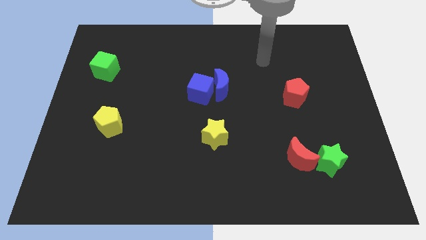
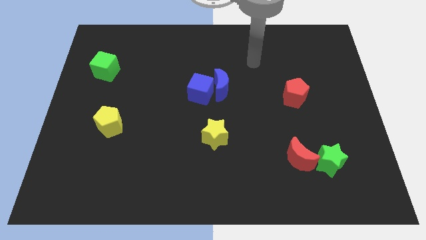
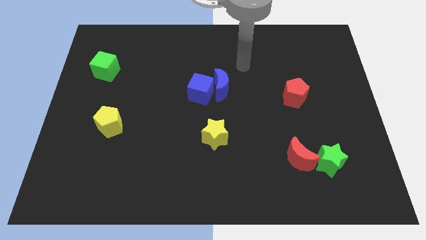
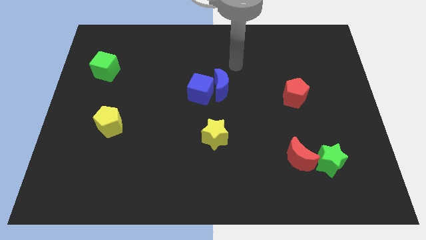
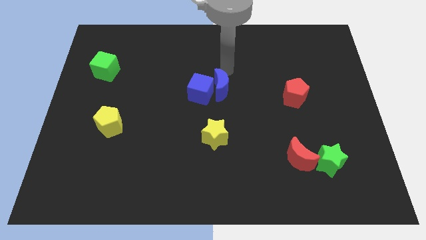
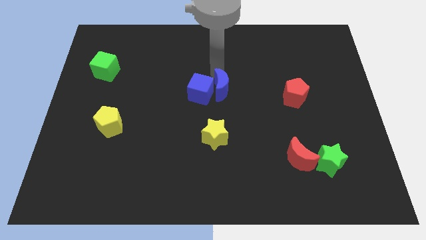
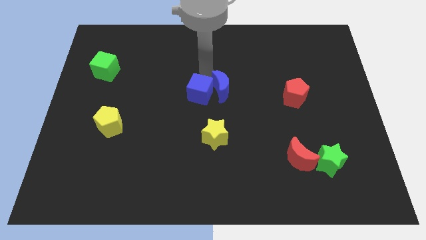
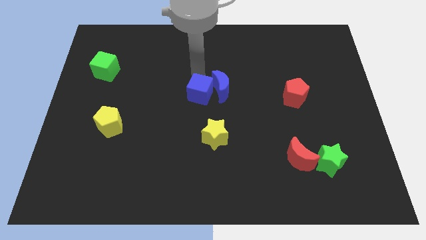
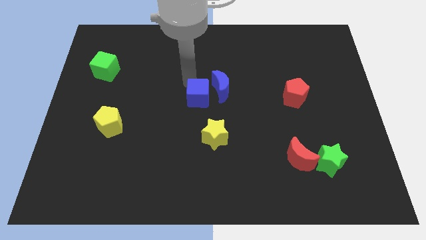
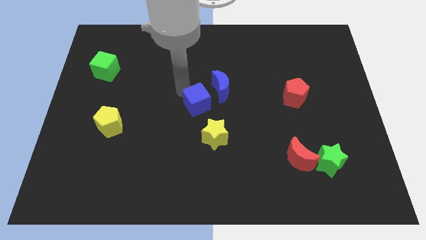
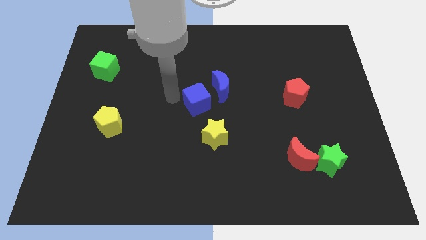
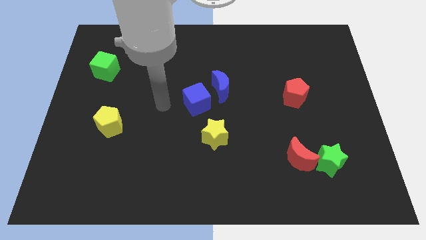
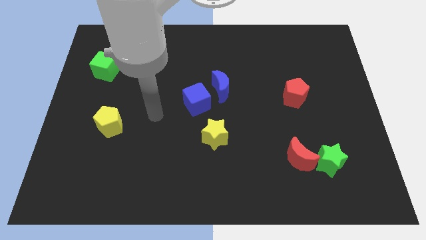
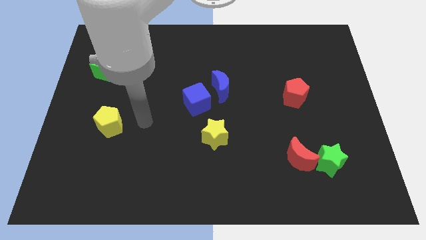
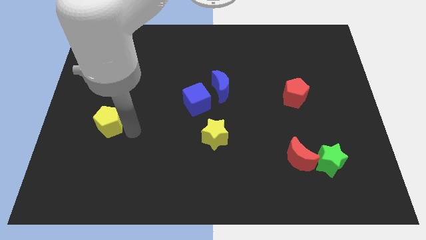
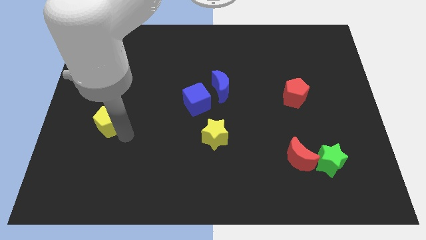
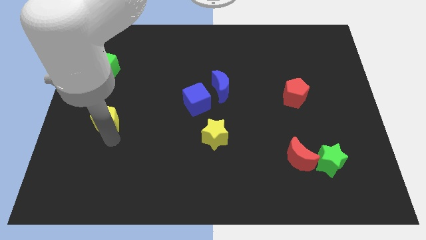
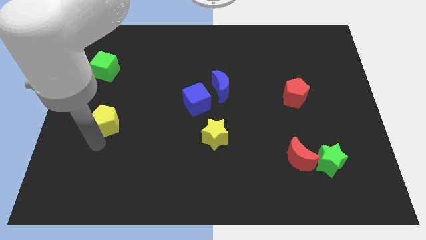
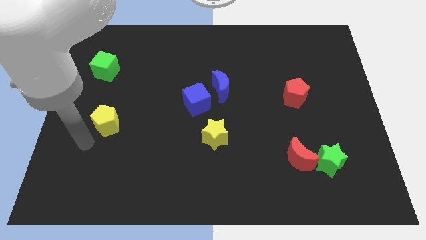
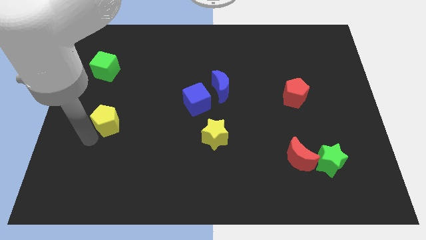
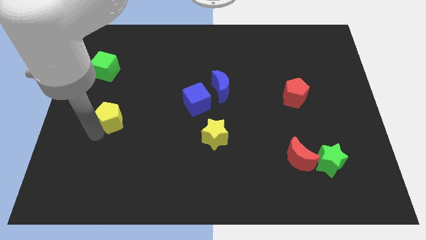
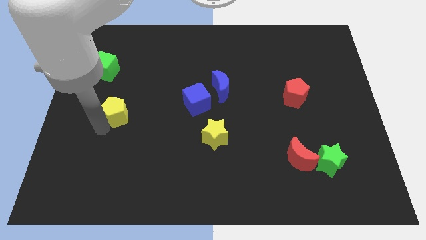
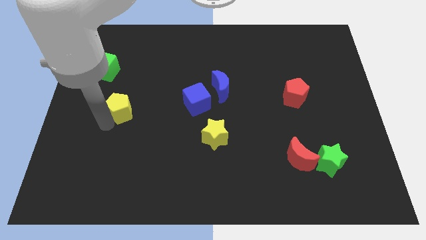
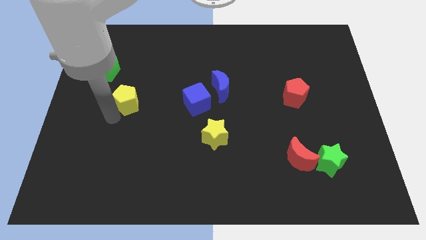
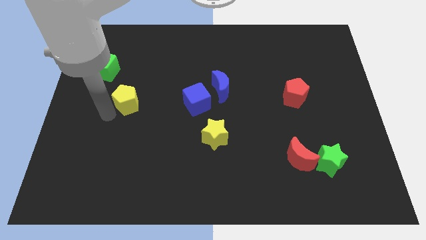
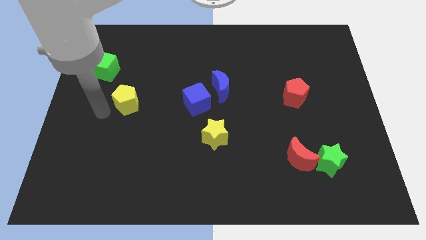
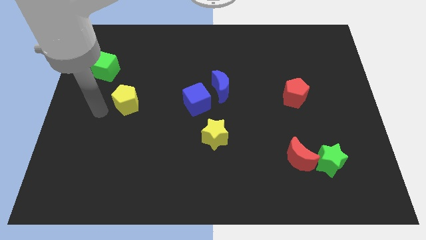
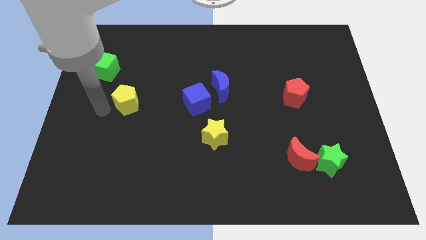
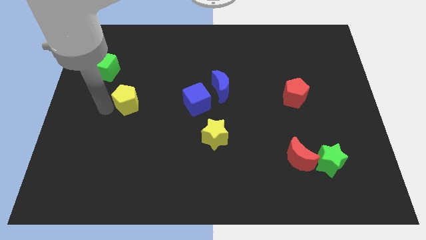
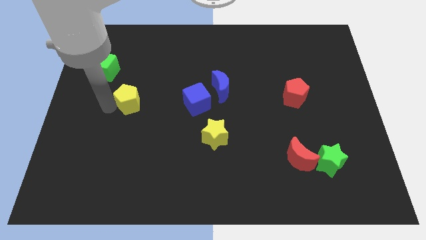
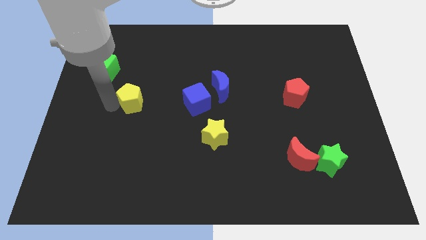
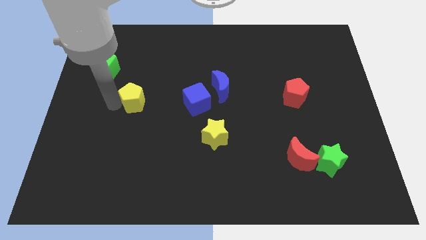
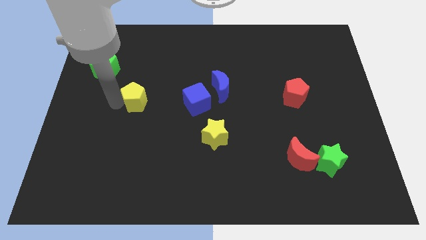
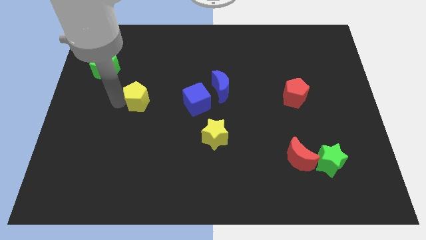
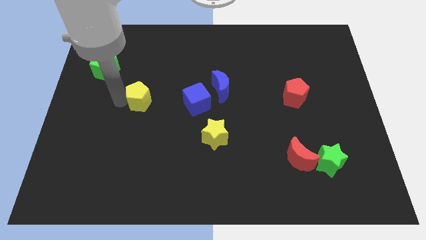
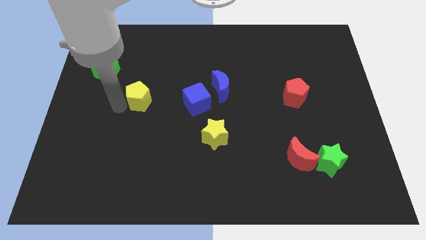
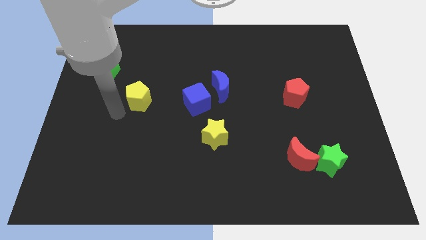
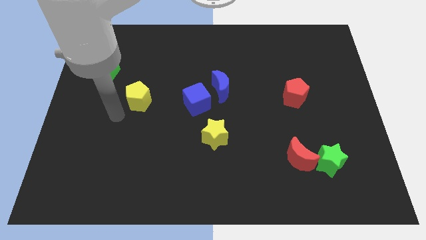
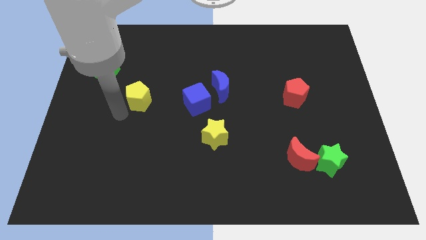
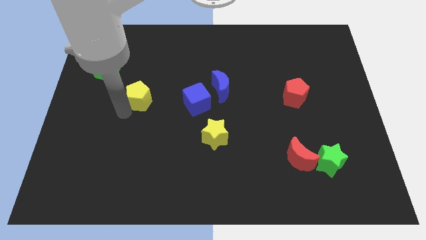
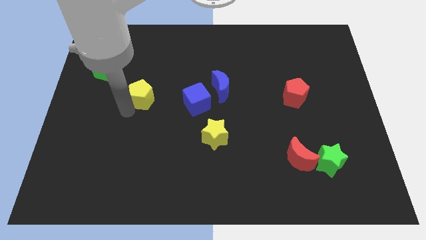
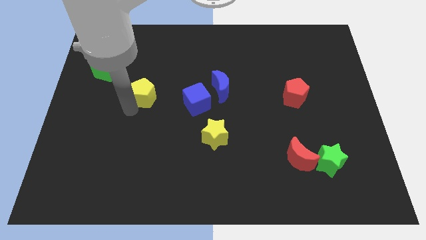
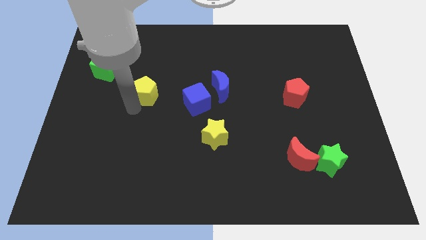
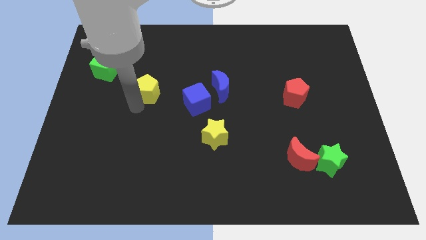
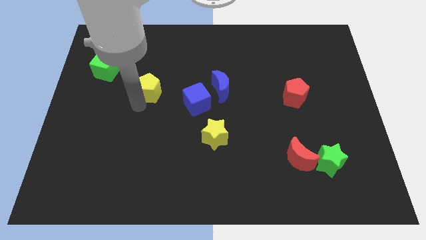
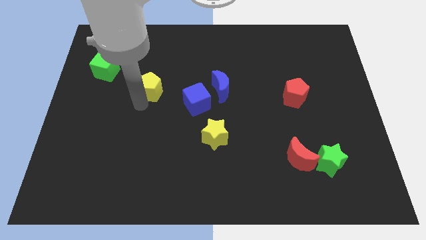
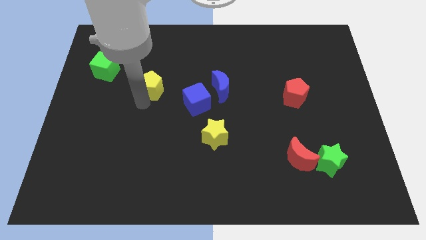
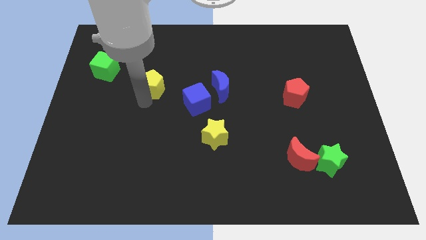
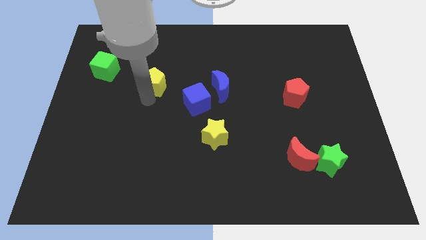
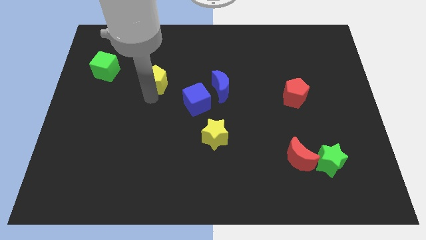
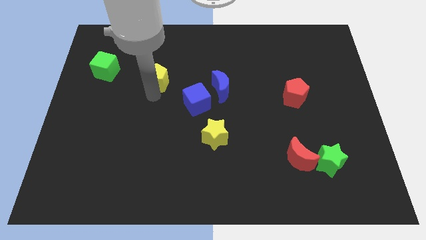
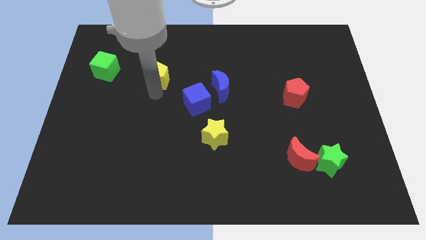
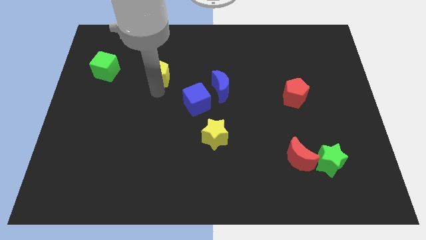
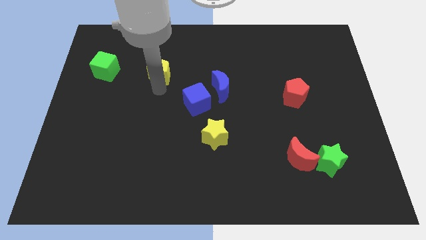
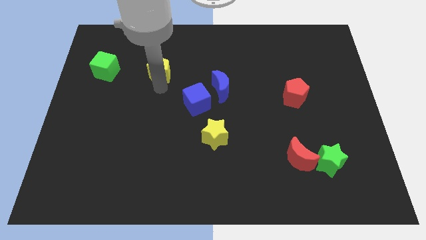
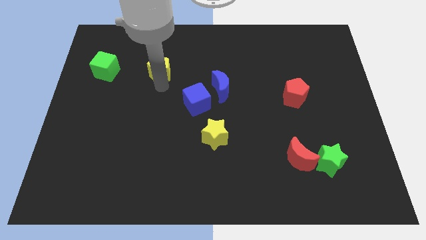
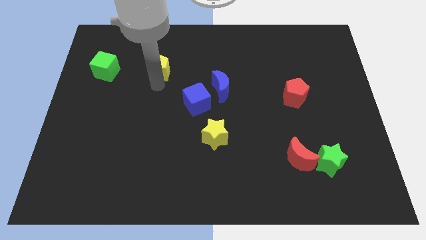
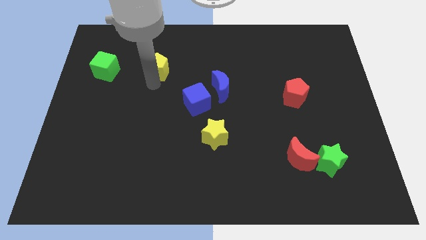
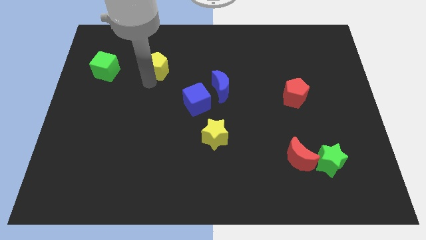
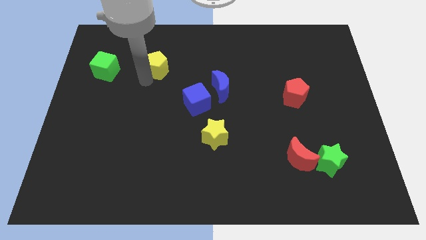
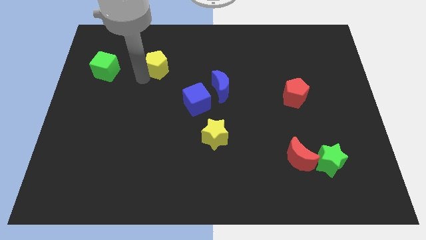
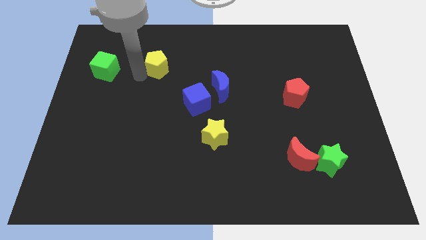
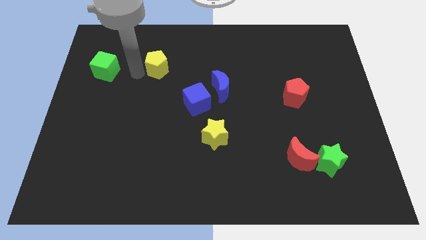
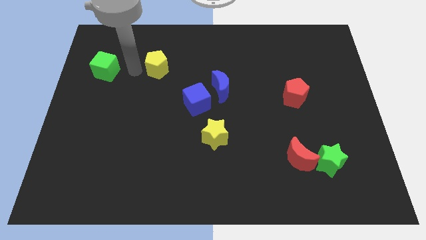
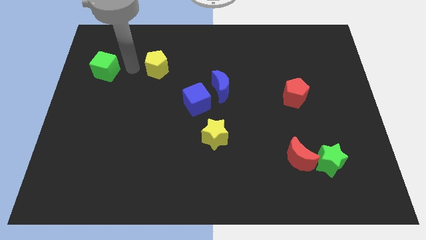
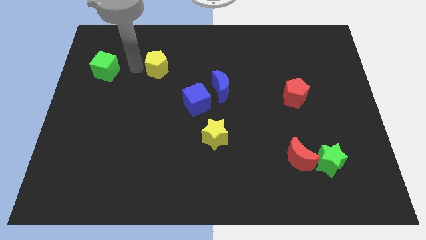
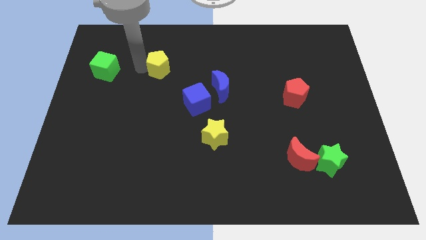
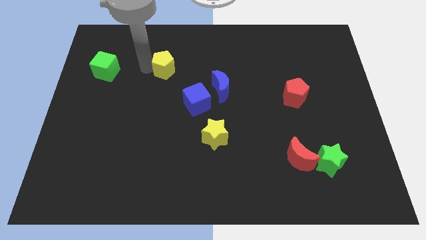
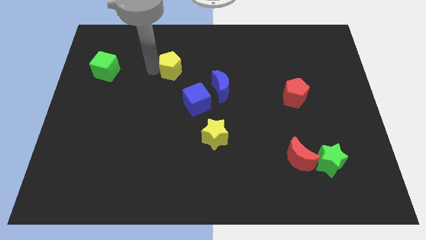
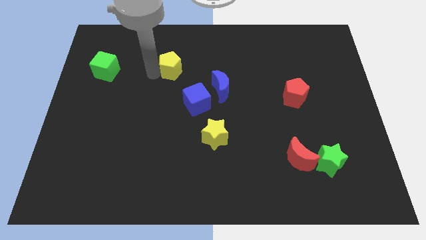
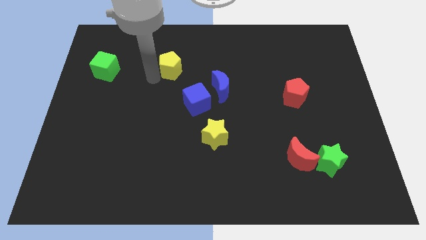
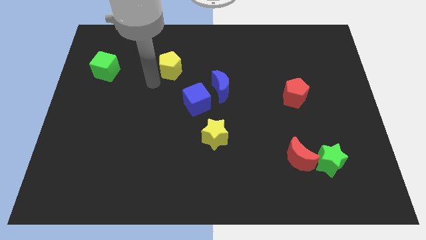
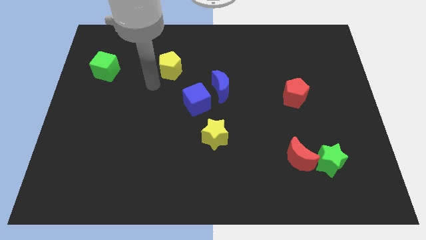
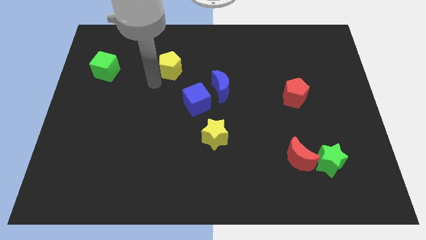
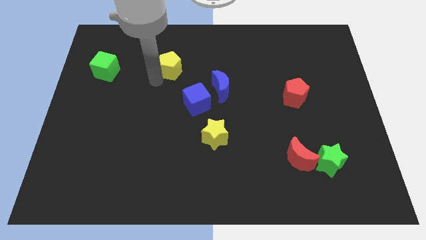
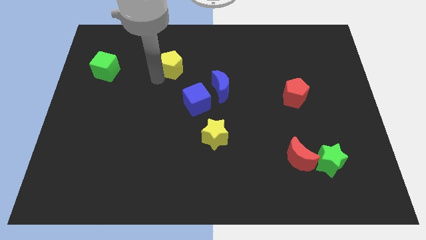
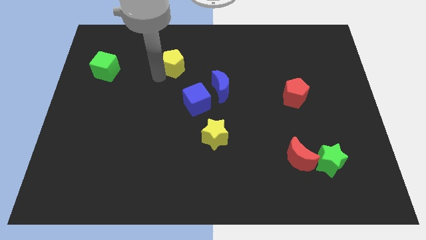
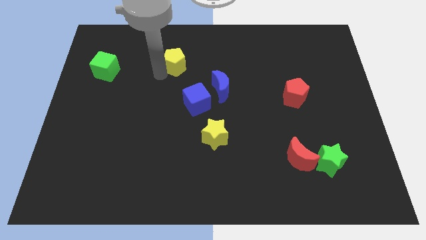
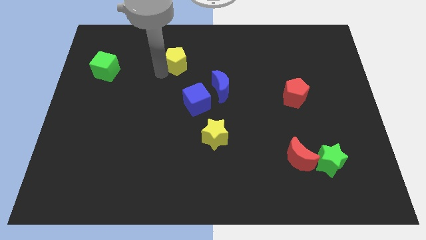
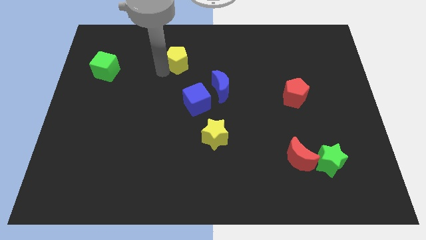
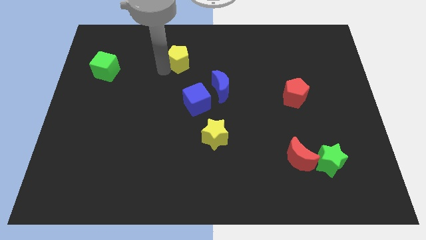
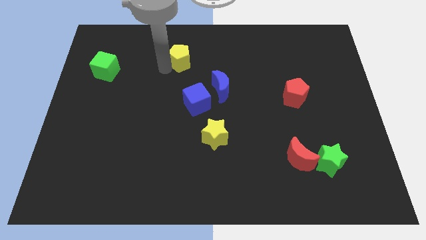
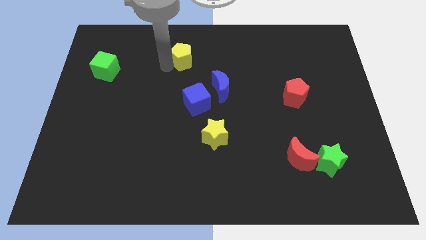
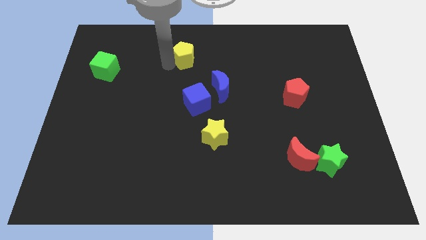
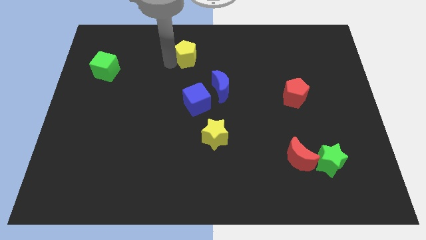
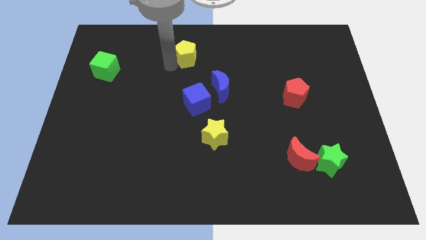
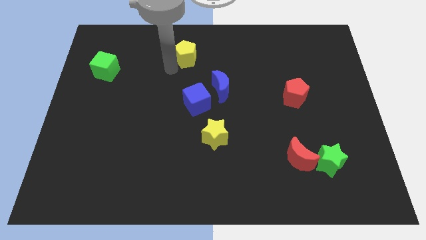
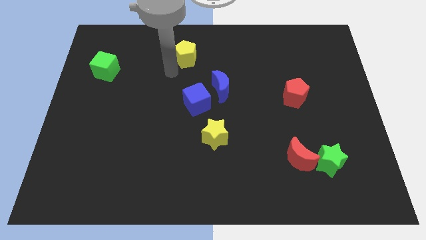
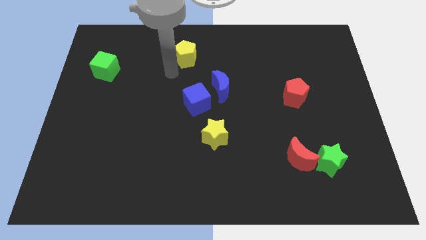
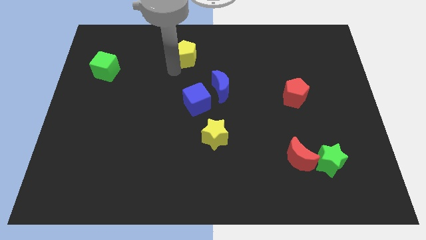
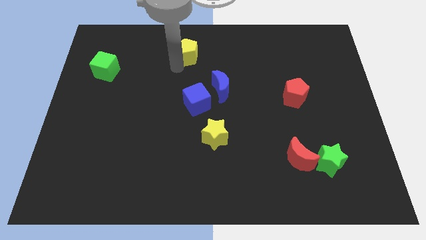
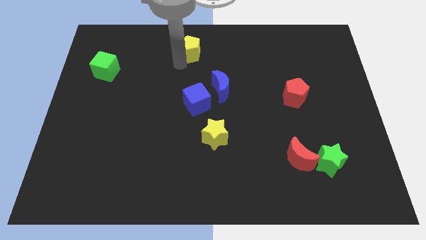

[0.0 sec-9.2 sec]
put the yellow pentagon to the towards your base
